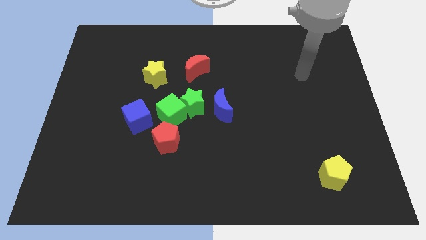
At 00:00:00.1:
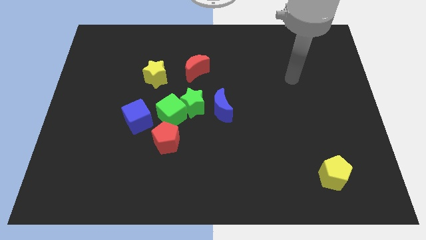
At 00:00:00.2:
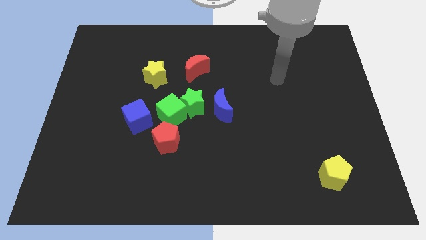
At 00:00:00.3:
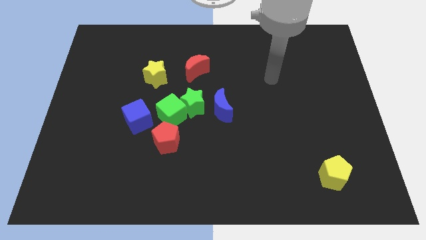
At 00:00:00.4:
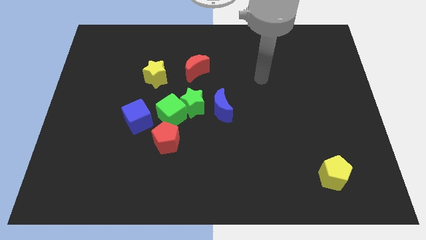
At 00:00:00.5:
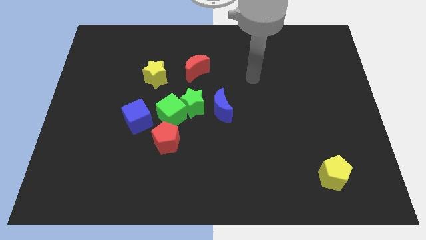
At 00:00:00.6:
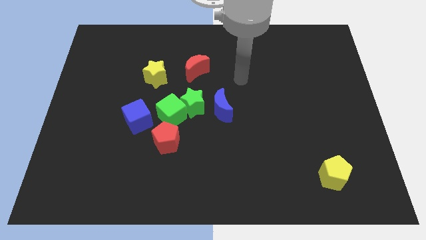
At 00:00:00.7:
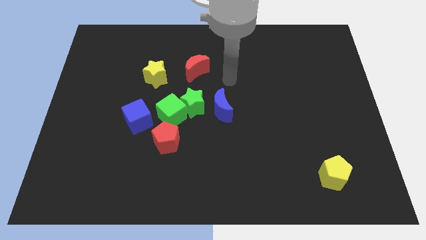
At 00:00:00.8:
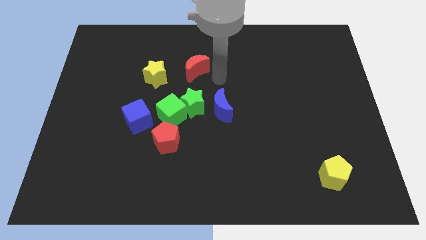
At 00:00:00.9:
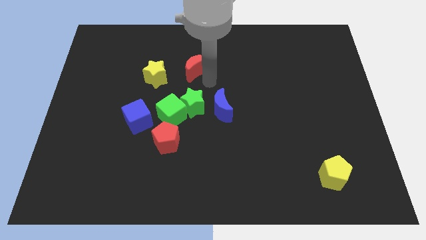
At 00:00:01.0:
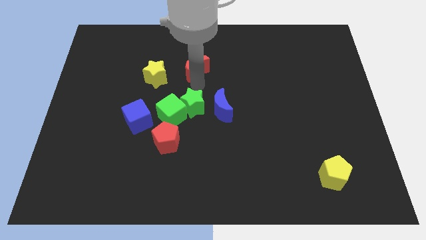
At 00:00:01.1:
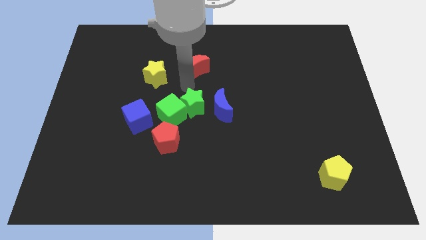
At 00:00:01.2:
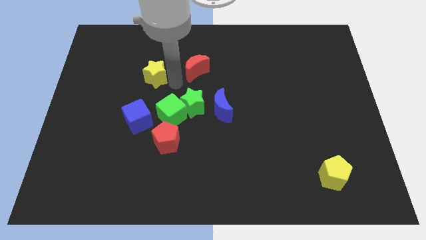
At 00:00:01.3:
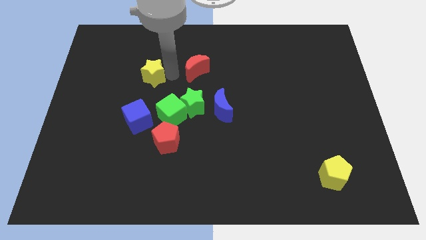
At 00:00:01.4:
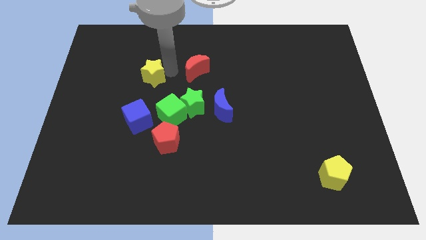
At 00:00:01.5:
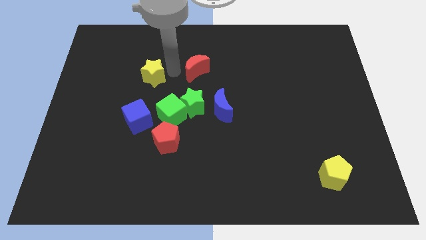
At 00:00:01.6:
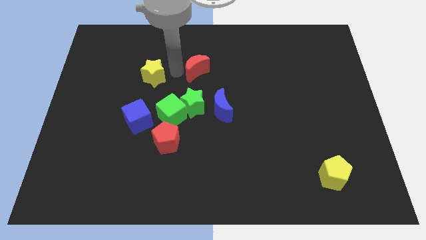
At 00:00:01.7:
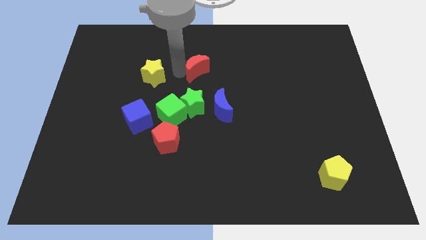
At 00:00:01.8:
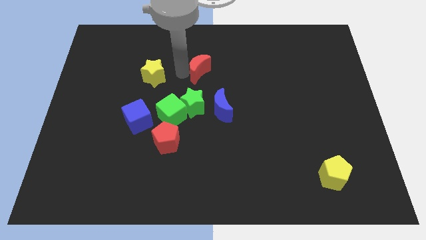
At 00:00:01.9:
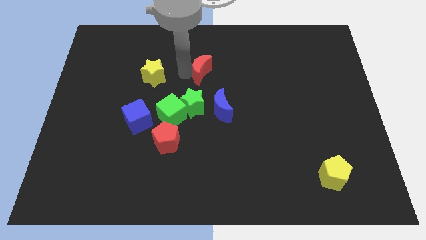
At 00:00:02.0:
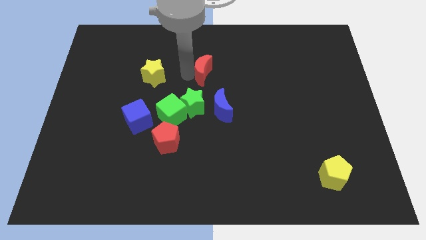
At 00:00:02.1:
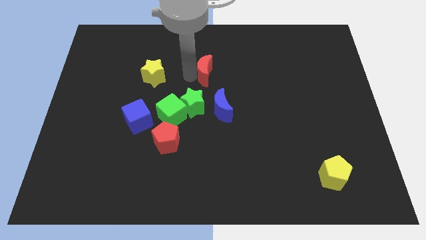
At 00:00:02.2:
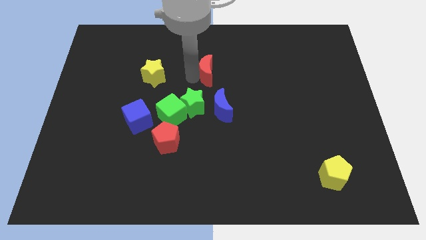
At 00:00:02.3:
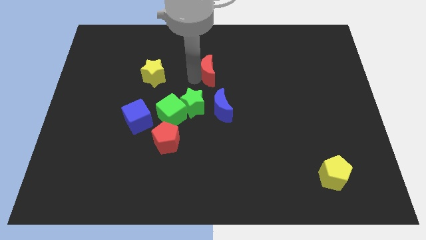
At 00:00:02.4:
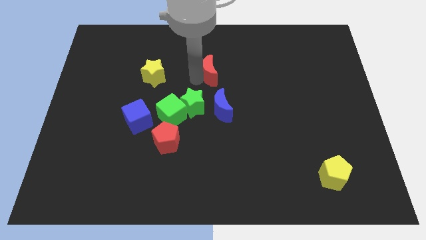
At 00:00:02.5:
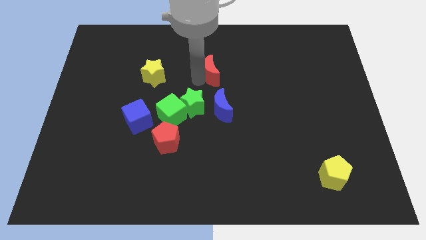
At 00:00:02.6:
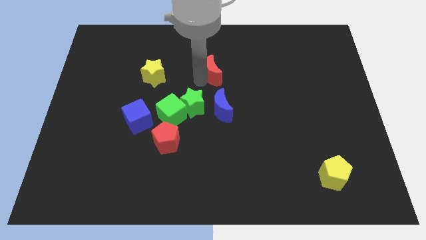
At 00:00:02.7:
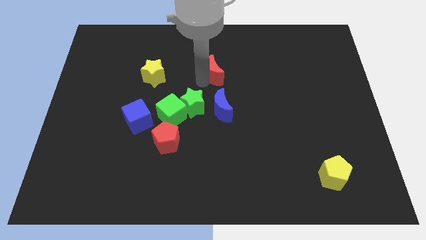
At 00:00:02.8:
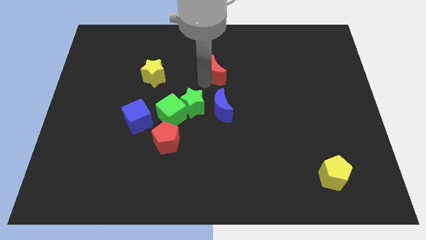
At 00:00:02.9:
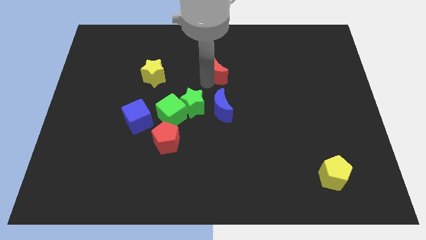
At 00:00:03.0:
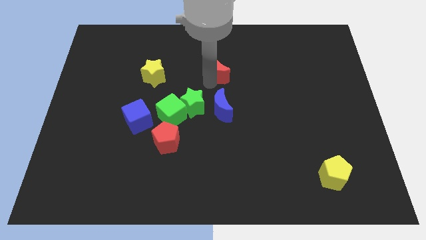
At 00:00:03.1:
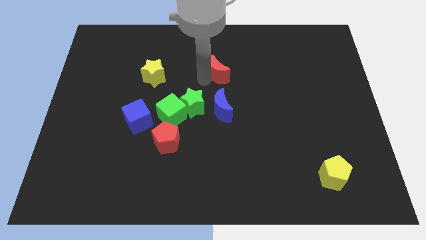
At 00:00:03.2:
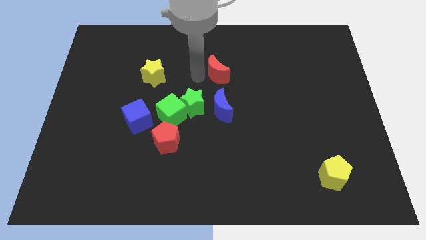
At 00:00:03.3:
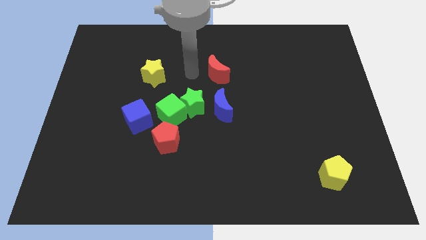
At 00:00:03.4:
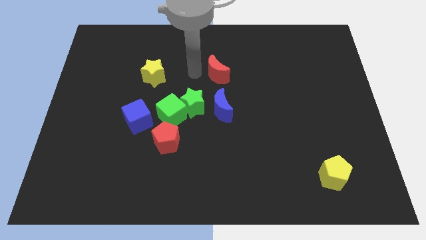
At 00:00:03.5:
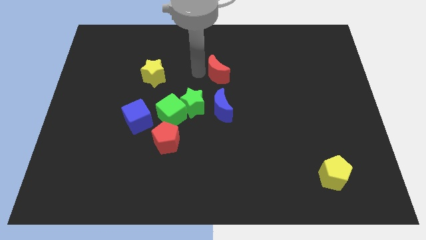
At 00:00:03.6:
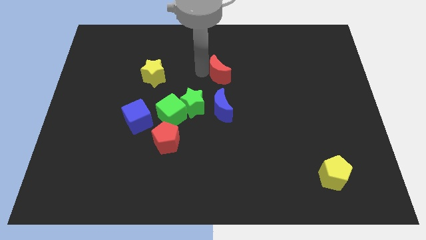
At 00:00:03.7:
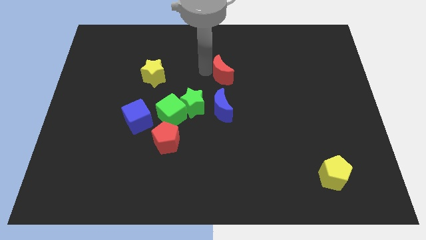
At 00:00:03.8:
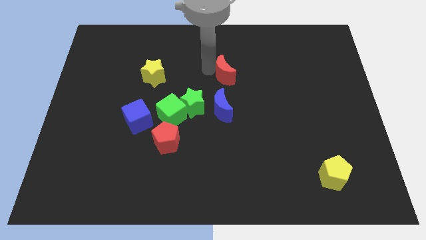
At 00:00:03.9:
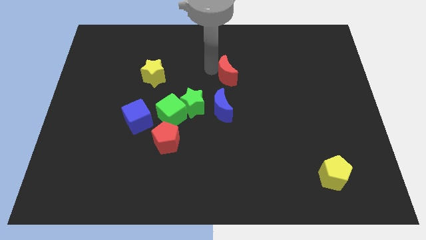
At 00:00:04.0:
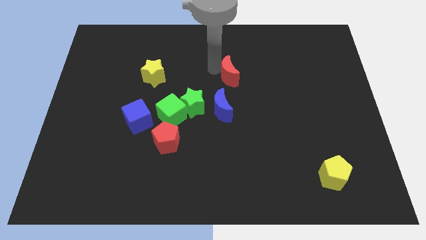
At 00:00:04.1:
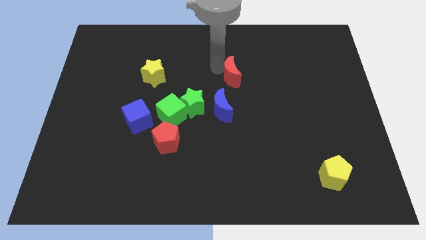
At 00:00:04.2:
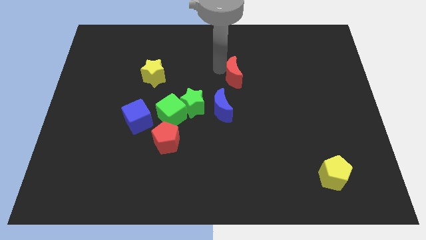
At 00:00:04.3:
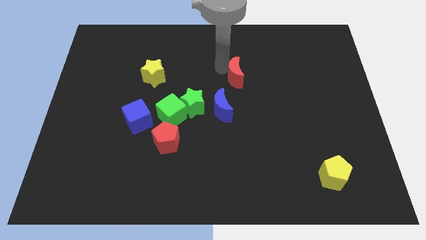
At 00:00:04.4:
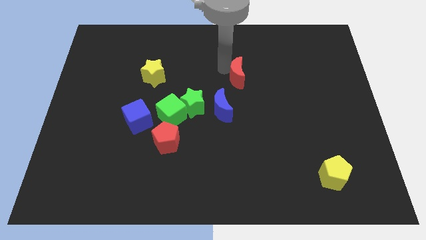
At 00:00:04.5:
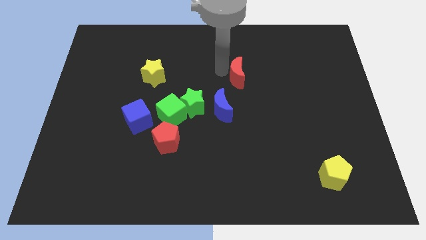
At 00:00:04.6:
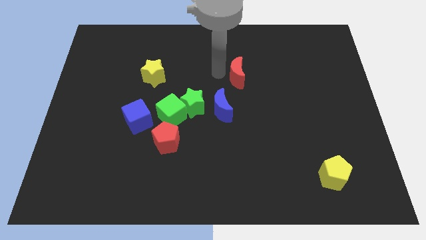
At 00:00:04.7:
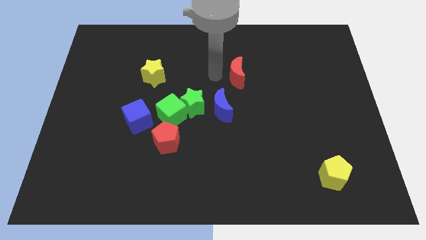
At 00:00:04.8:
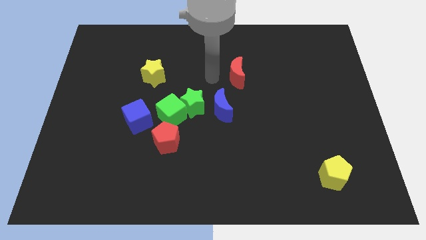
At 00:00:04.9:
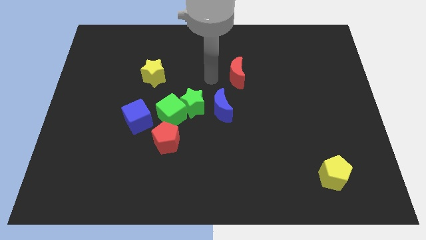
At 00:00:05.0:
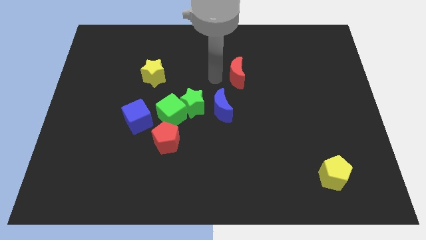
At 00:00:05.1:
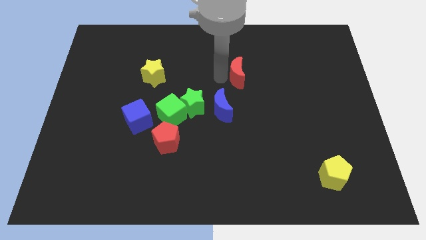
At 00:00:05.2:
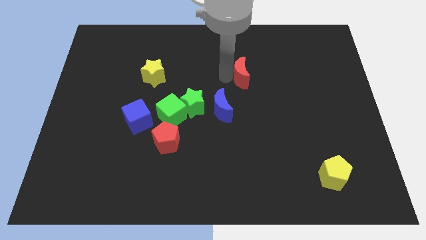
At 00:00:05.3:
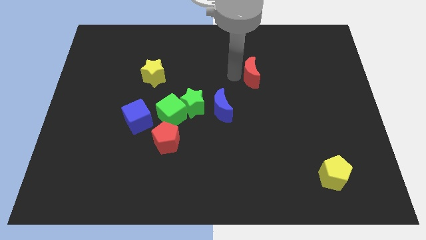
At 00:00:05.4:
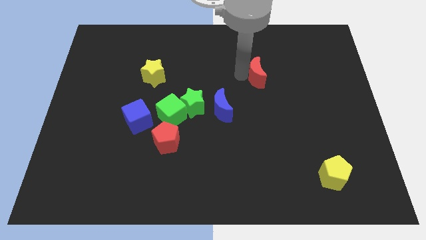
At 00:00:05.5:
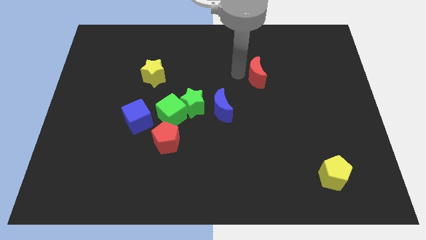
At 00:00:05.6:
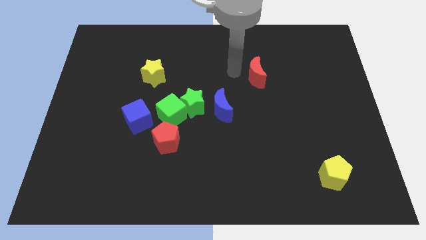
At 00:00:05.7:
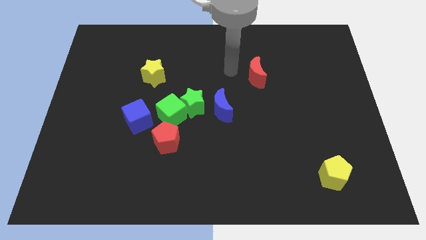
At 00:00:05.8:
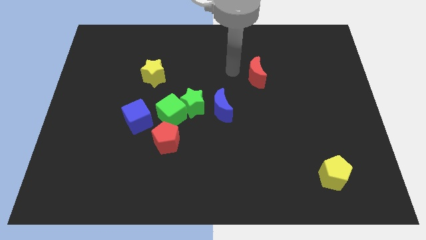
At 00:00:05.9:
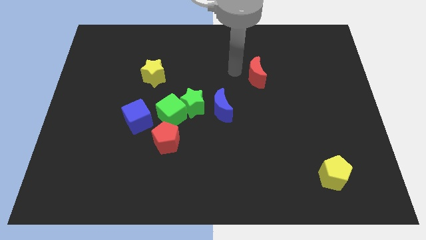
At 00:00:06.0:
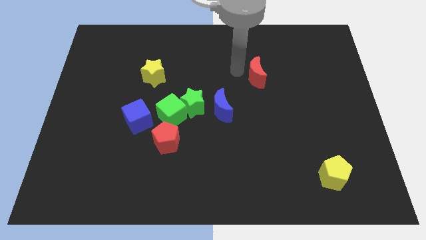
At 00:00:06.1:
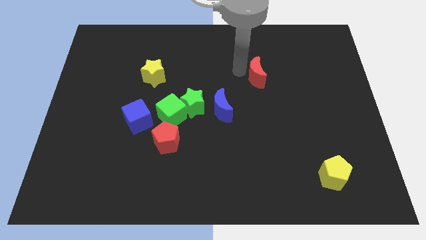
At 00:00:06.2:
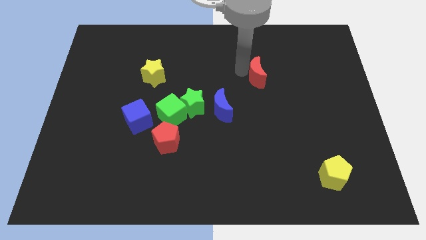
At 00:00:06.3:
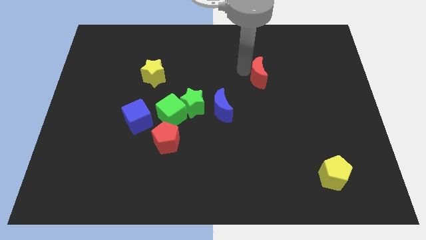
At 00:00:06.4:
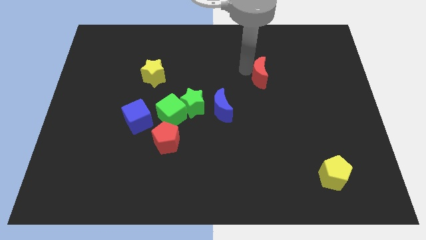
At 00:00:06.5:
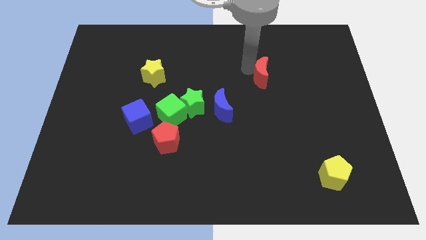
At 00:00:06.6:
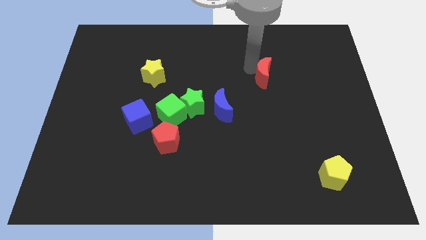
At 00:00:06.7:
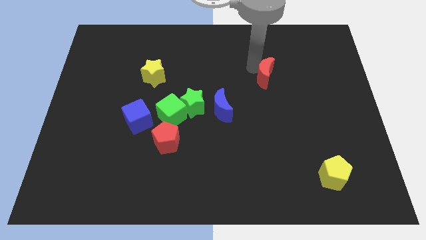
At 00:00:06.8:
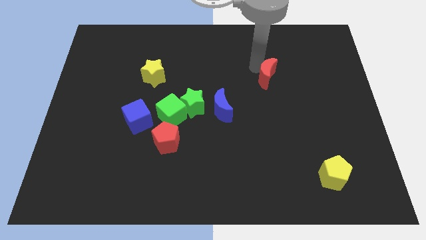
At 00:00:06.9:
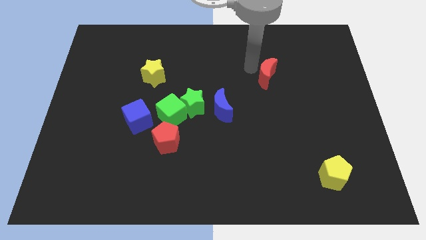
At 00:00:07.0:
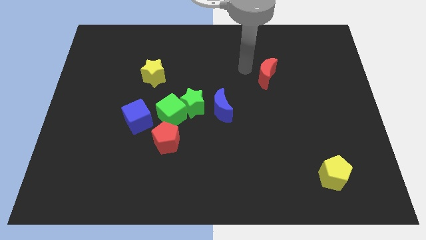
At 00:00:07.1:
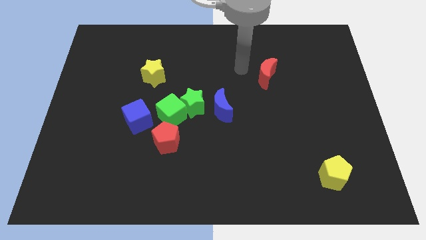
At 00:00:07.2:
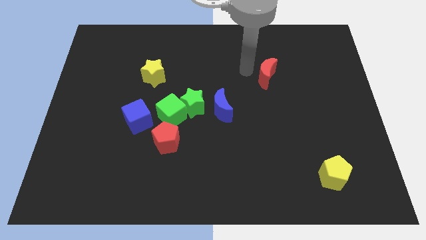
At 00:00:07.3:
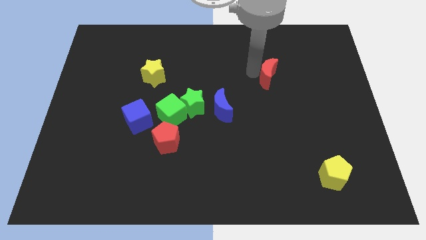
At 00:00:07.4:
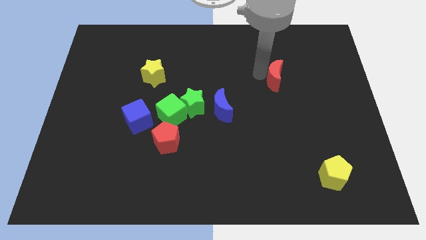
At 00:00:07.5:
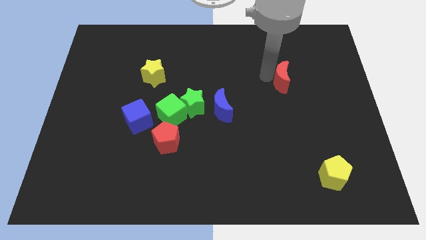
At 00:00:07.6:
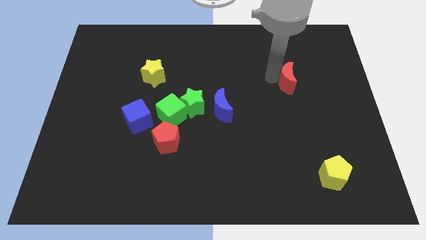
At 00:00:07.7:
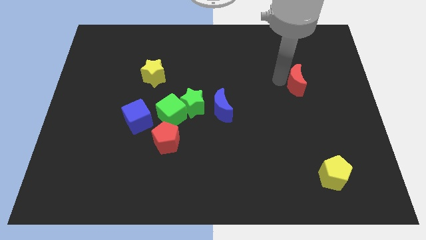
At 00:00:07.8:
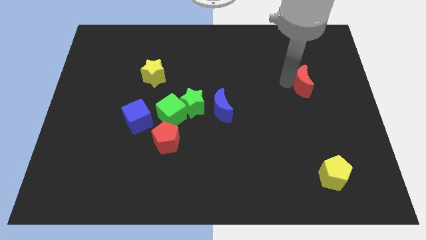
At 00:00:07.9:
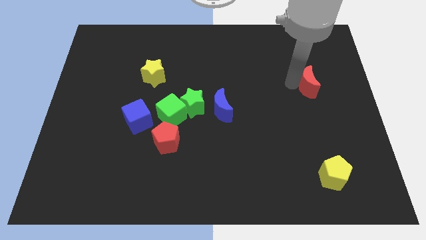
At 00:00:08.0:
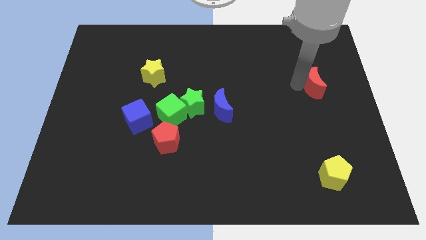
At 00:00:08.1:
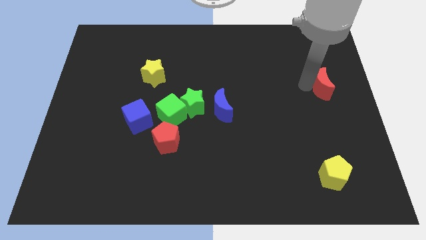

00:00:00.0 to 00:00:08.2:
put the red moon to the center right
